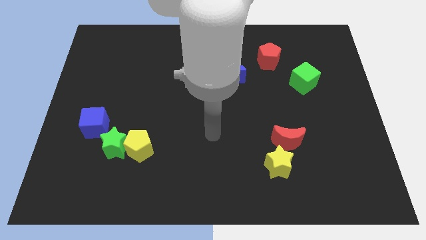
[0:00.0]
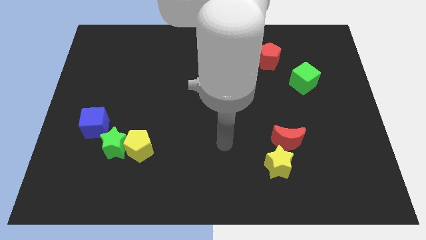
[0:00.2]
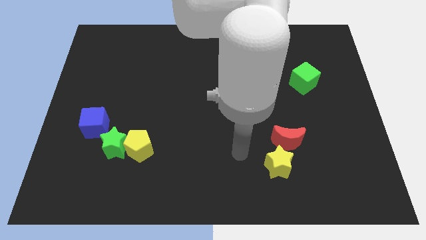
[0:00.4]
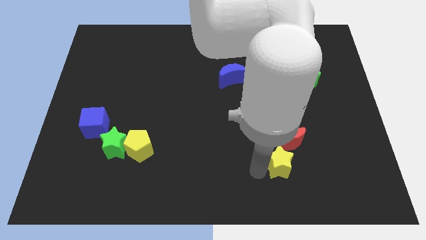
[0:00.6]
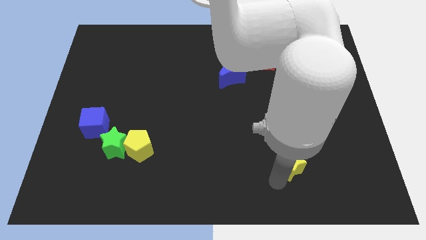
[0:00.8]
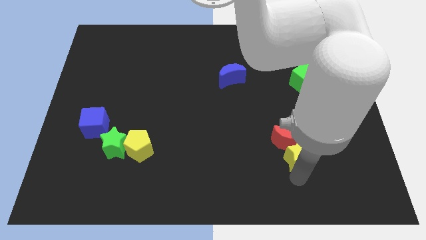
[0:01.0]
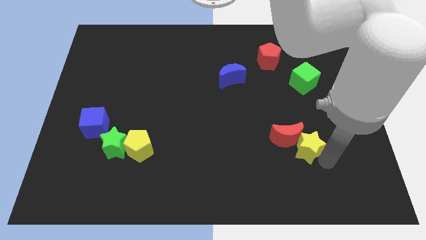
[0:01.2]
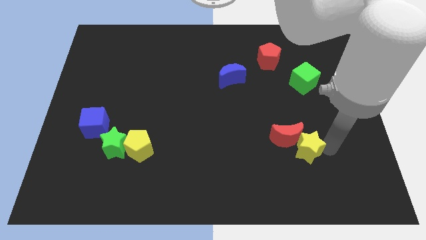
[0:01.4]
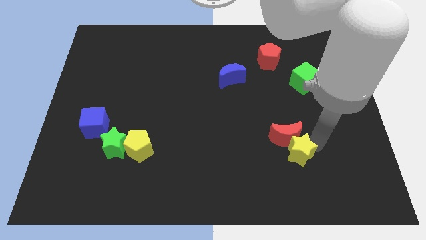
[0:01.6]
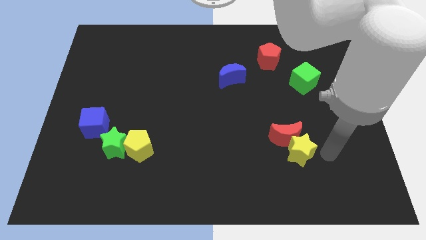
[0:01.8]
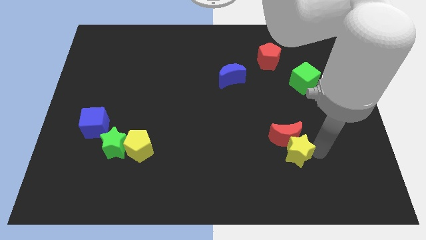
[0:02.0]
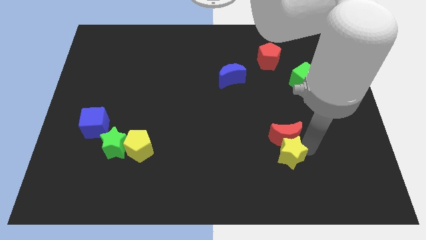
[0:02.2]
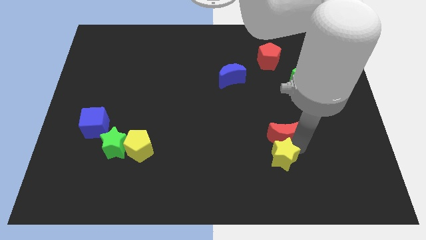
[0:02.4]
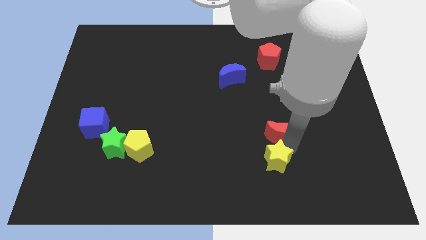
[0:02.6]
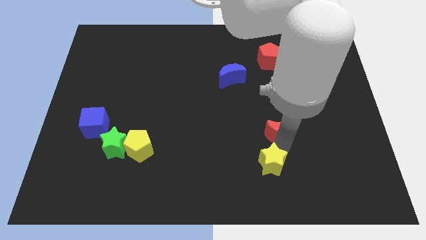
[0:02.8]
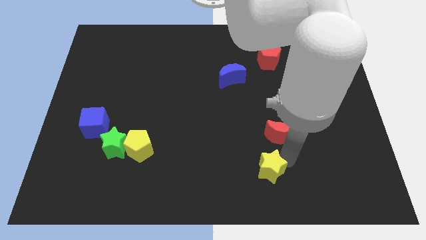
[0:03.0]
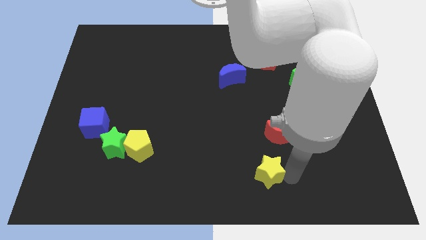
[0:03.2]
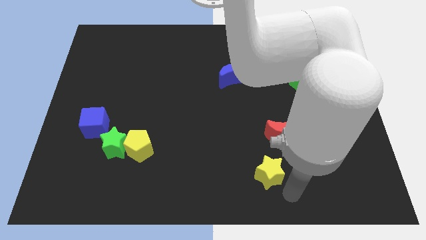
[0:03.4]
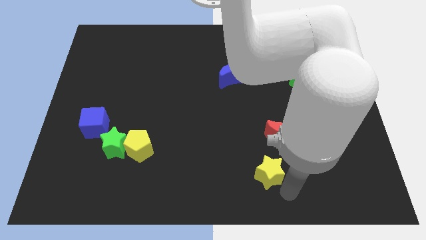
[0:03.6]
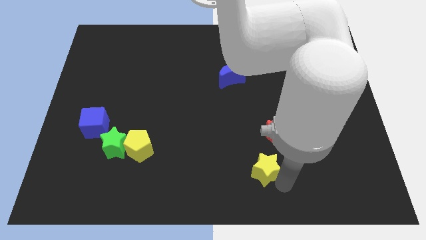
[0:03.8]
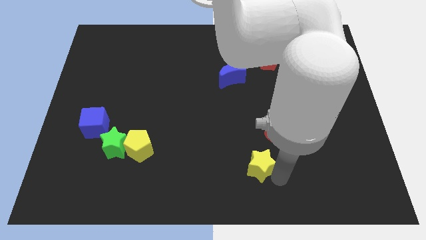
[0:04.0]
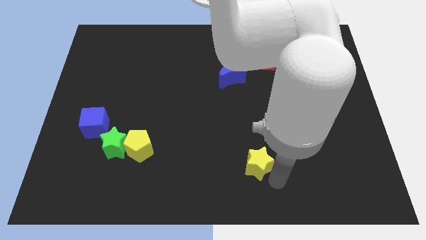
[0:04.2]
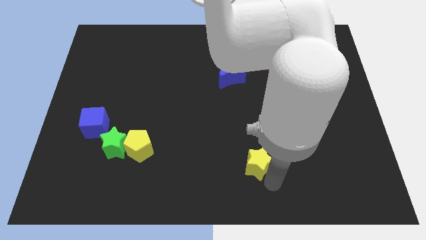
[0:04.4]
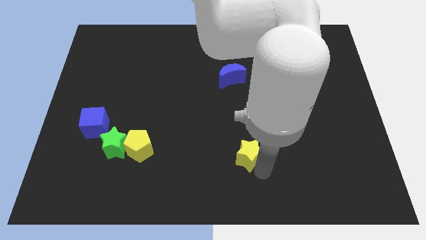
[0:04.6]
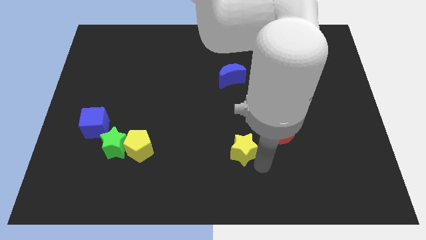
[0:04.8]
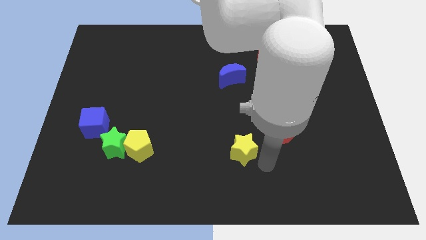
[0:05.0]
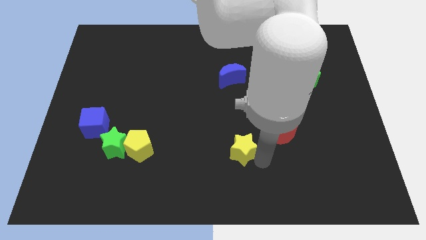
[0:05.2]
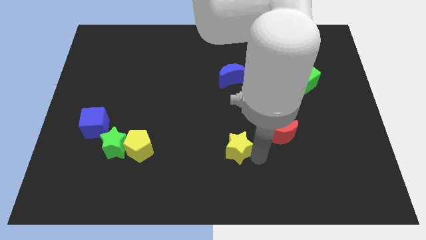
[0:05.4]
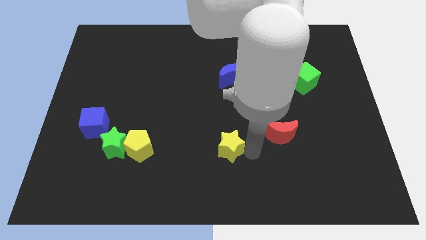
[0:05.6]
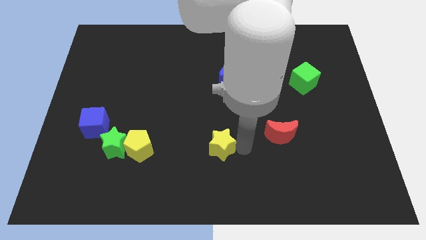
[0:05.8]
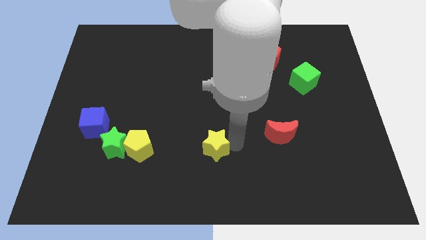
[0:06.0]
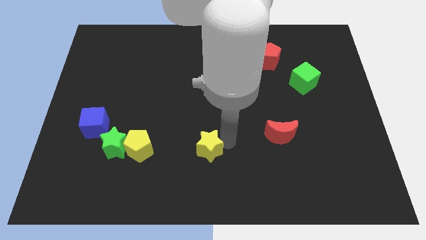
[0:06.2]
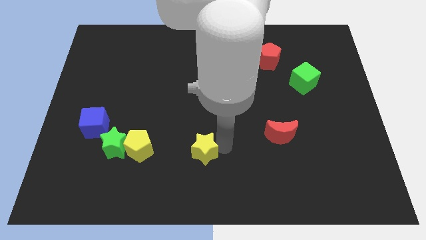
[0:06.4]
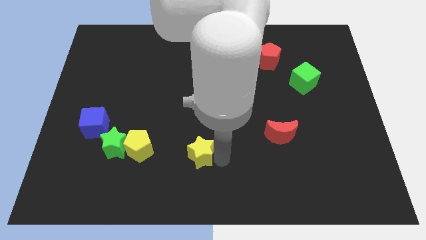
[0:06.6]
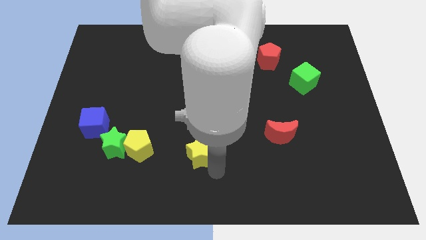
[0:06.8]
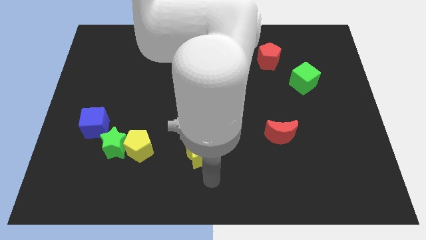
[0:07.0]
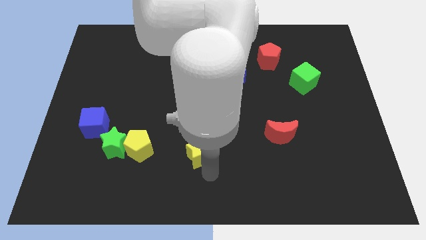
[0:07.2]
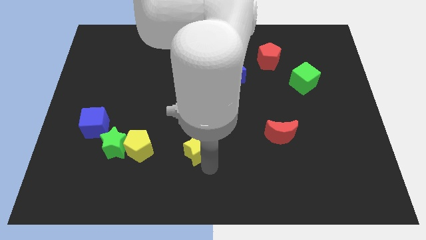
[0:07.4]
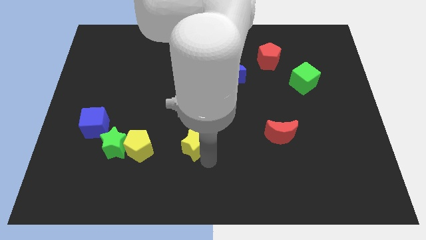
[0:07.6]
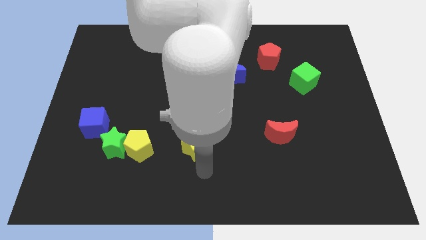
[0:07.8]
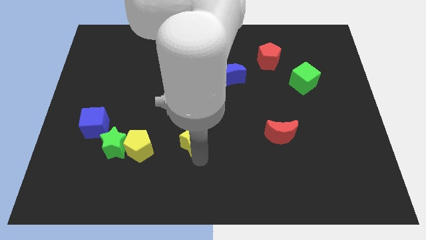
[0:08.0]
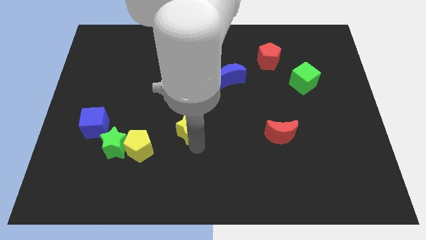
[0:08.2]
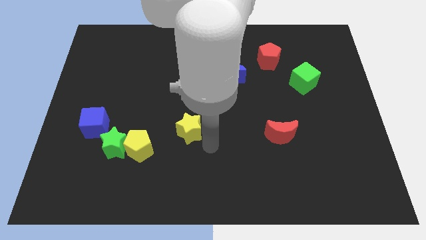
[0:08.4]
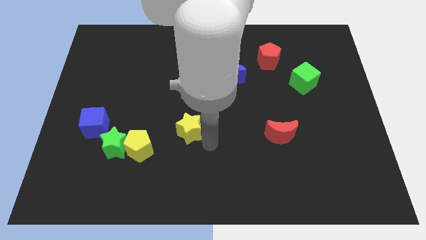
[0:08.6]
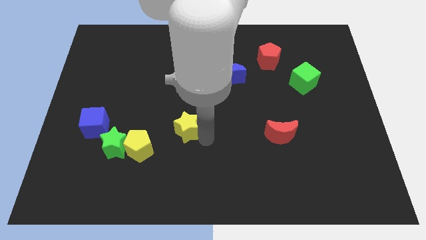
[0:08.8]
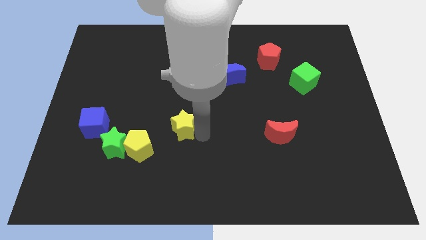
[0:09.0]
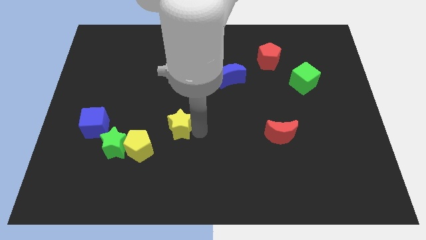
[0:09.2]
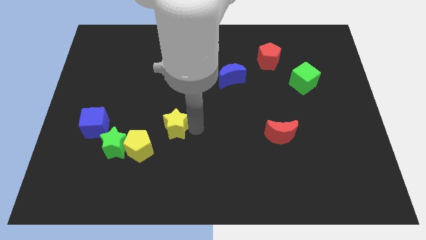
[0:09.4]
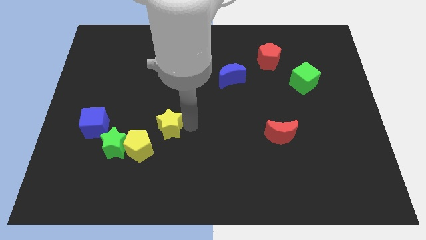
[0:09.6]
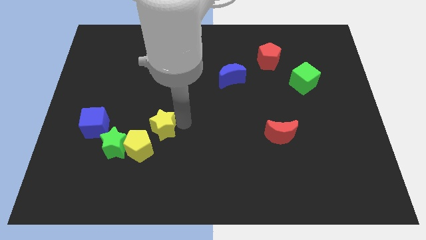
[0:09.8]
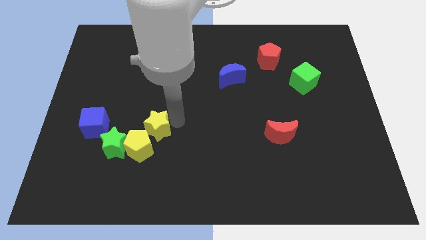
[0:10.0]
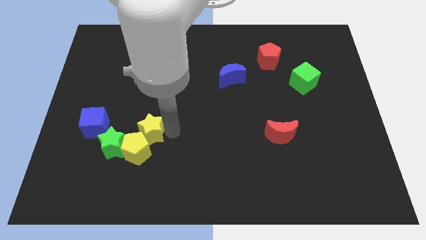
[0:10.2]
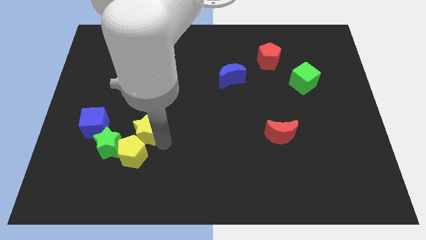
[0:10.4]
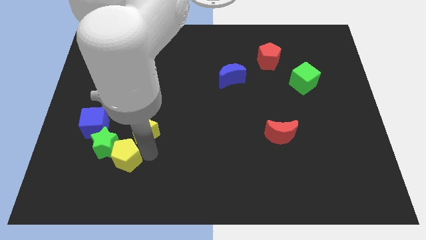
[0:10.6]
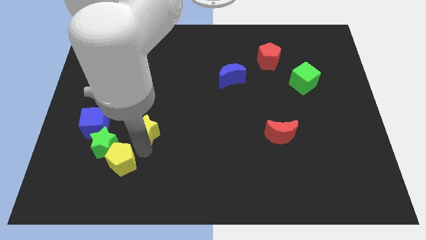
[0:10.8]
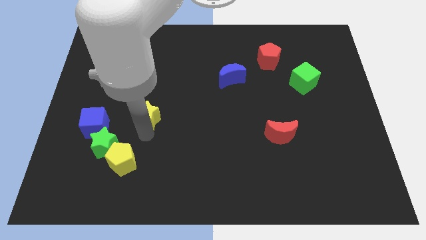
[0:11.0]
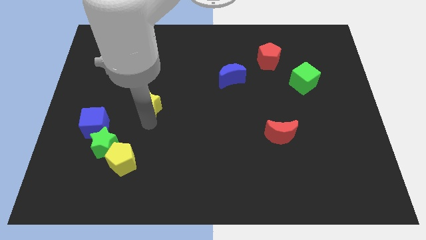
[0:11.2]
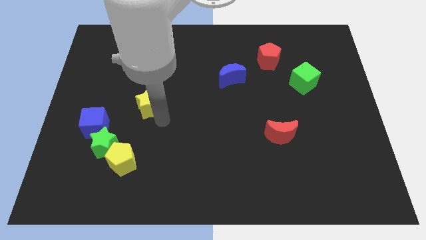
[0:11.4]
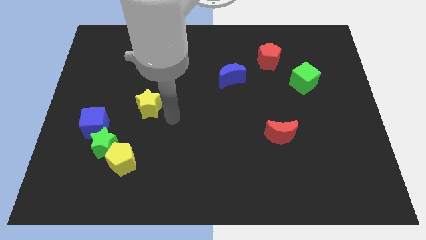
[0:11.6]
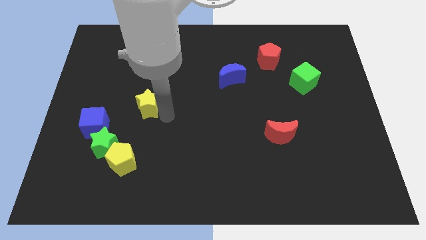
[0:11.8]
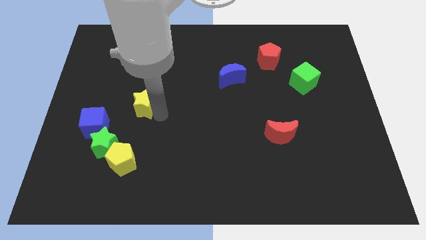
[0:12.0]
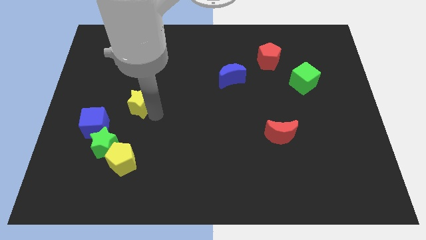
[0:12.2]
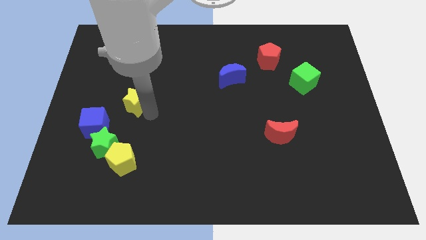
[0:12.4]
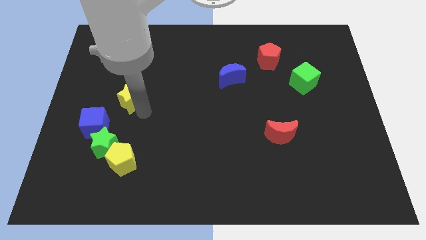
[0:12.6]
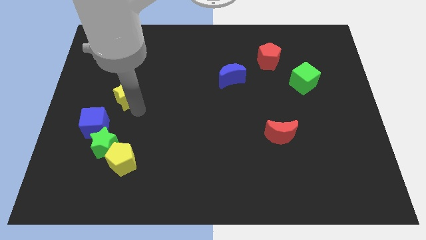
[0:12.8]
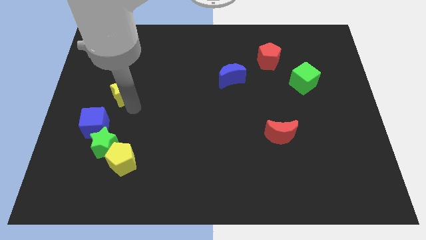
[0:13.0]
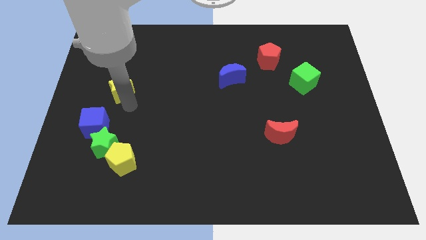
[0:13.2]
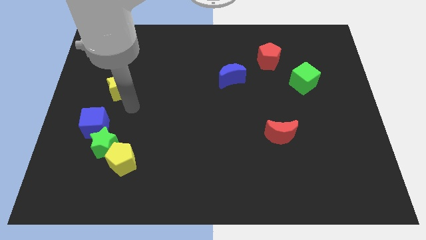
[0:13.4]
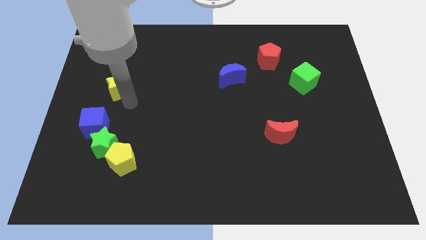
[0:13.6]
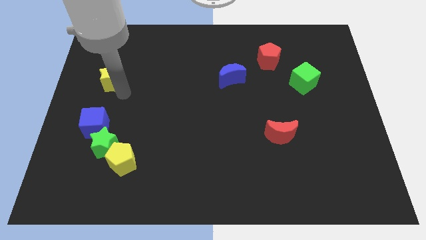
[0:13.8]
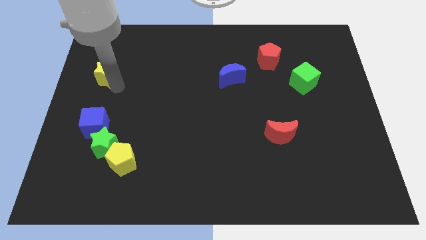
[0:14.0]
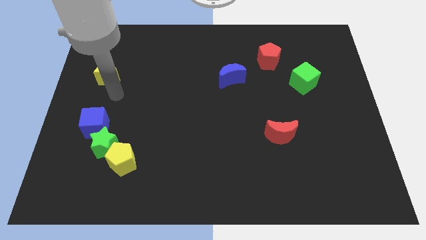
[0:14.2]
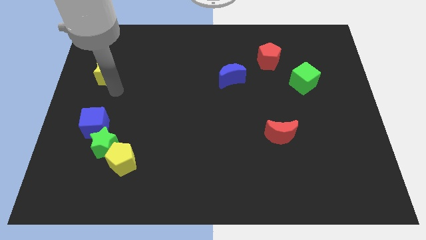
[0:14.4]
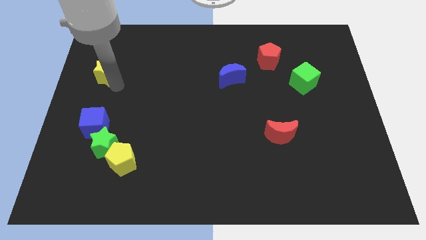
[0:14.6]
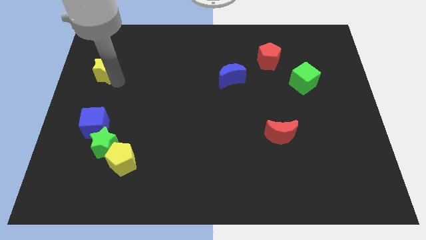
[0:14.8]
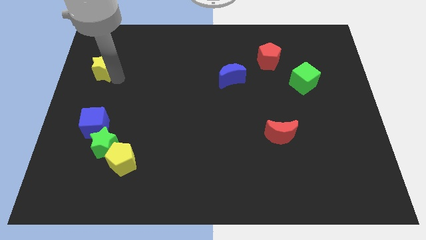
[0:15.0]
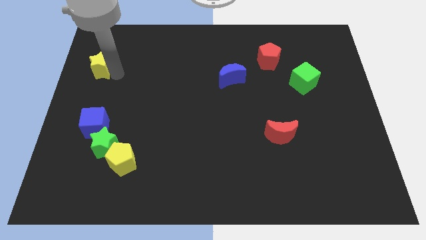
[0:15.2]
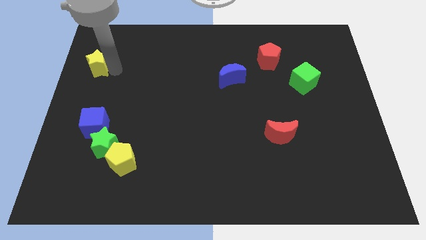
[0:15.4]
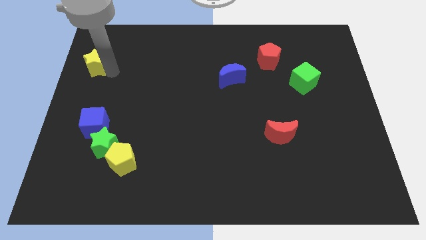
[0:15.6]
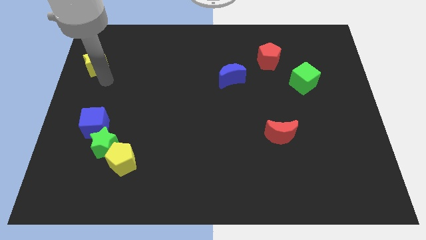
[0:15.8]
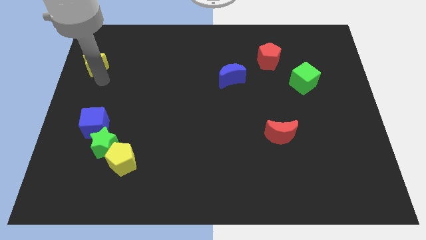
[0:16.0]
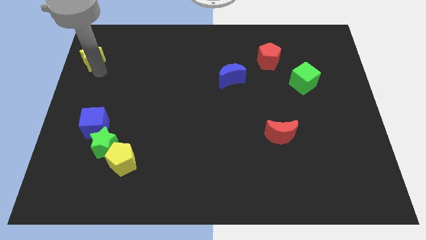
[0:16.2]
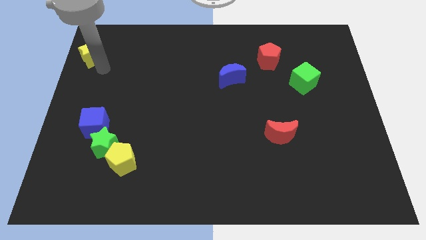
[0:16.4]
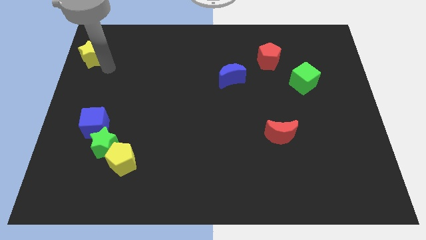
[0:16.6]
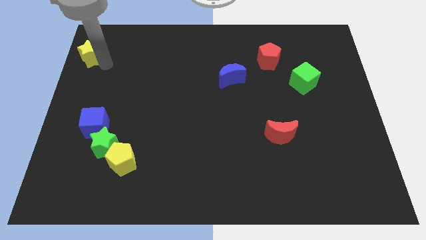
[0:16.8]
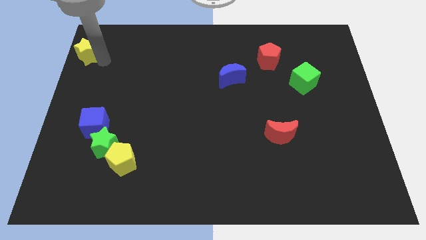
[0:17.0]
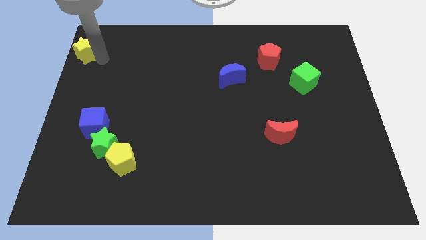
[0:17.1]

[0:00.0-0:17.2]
put the yellow star to the top left of the board
